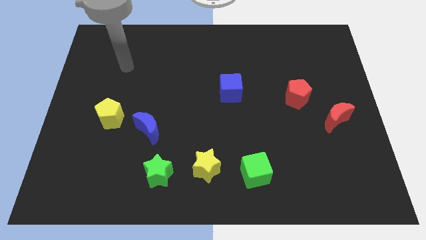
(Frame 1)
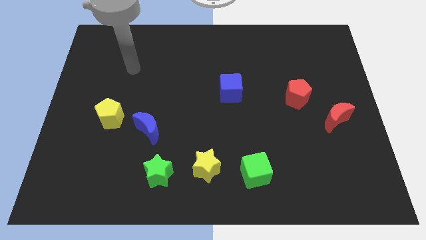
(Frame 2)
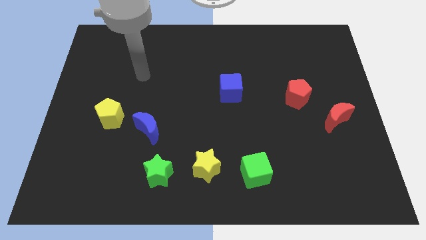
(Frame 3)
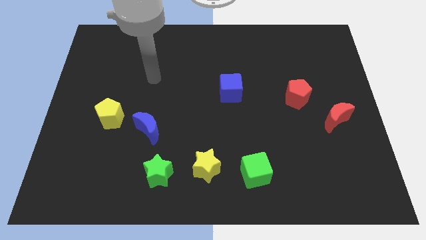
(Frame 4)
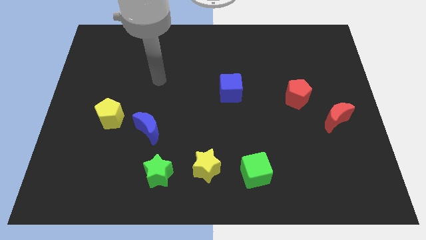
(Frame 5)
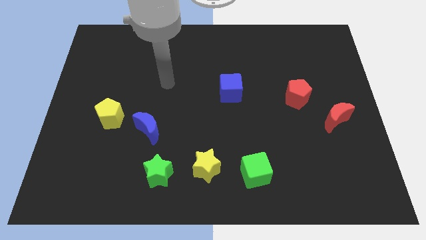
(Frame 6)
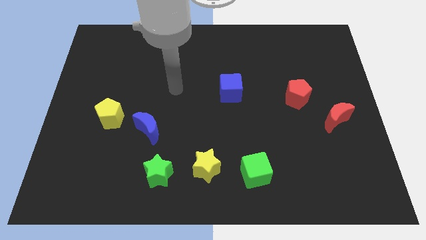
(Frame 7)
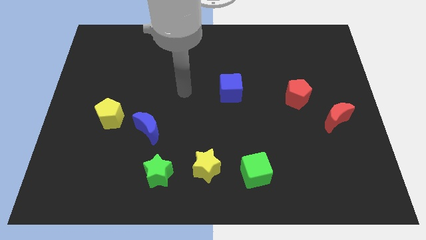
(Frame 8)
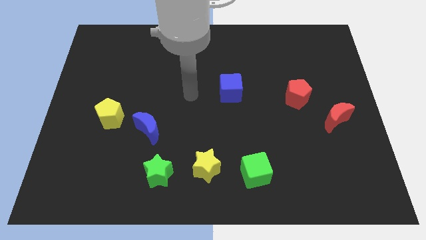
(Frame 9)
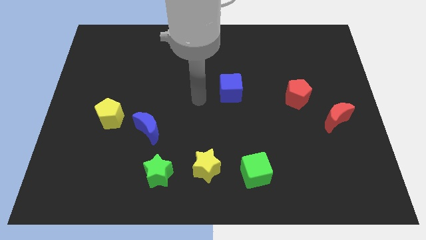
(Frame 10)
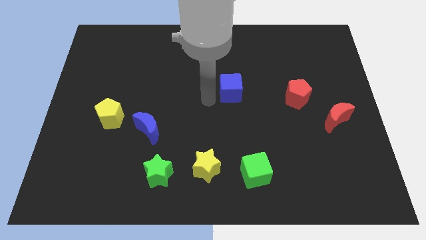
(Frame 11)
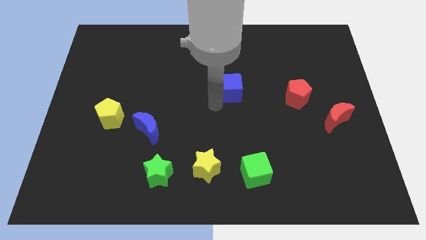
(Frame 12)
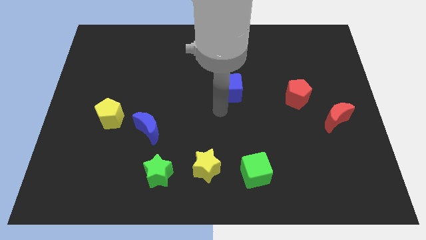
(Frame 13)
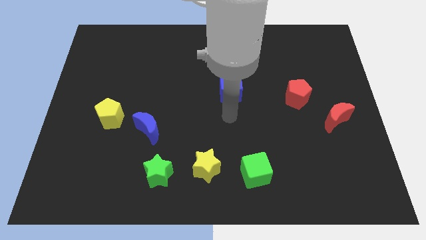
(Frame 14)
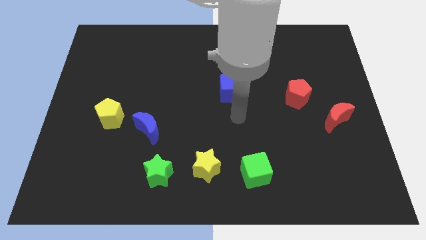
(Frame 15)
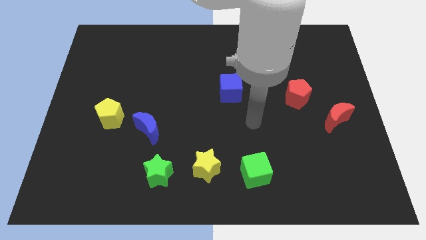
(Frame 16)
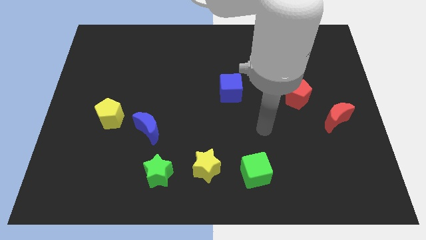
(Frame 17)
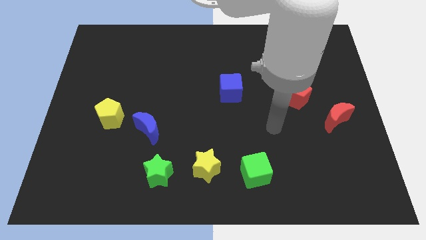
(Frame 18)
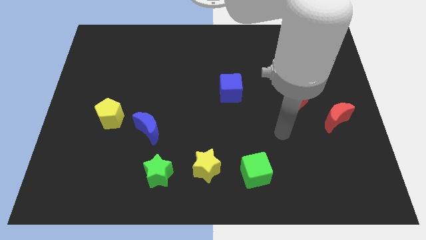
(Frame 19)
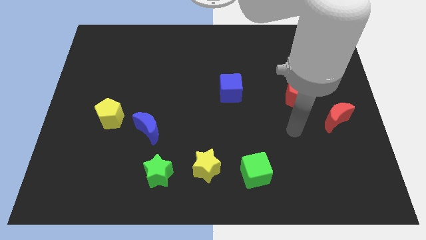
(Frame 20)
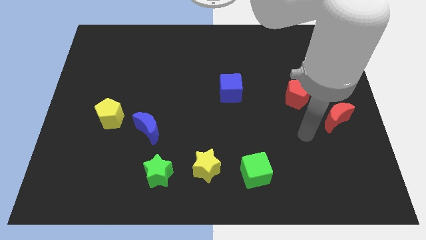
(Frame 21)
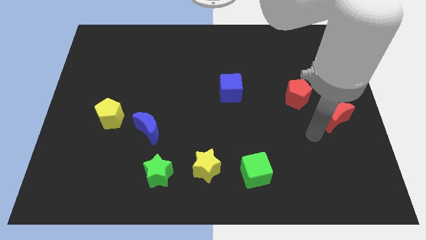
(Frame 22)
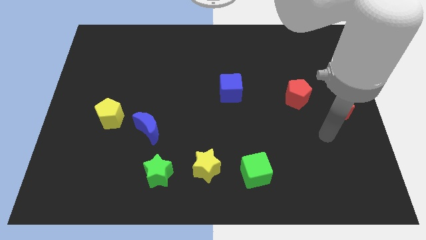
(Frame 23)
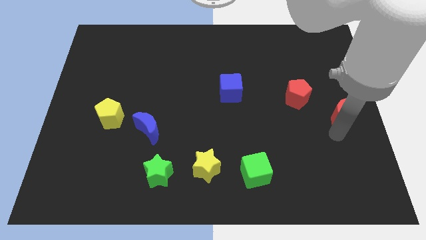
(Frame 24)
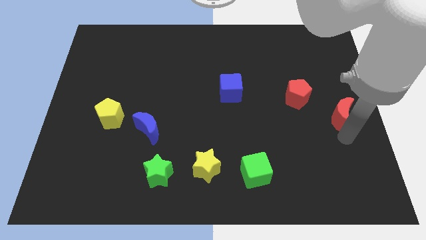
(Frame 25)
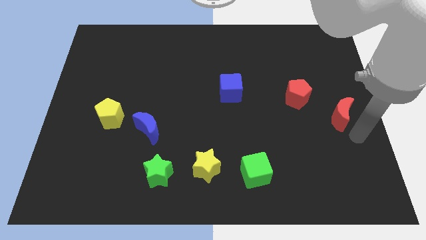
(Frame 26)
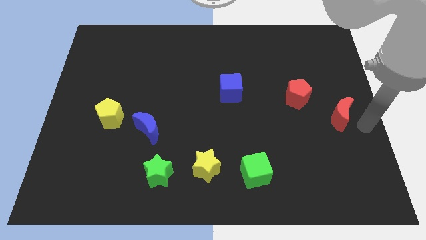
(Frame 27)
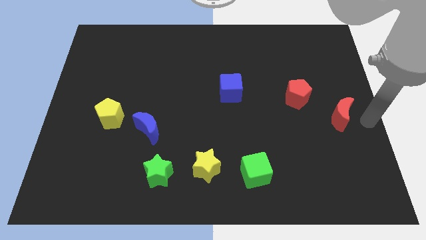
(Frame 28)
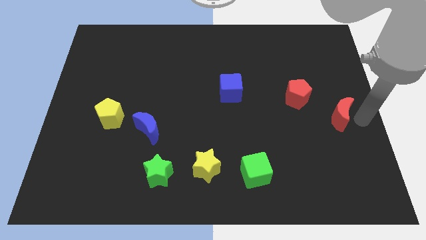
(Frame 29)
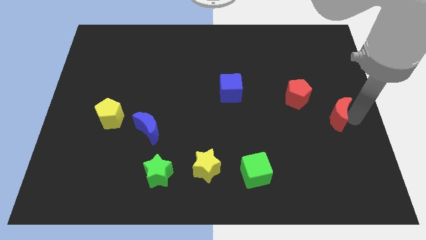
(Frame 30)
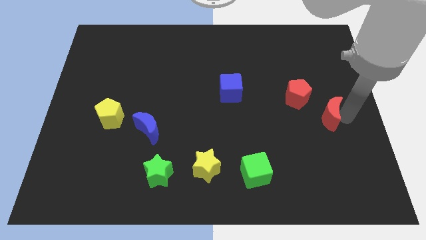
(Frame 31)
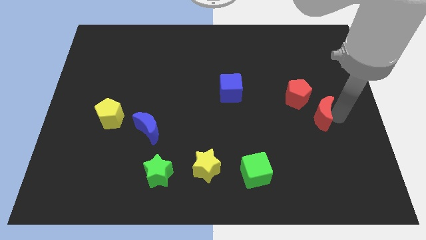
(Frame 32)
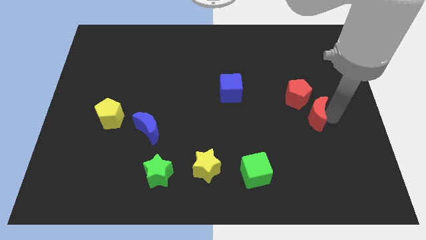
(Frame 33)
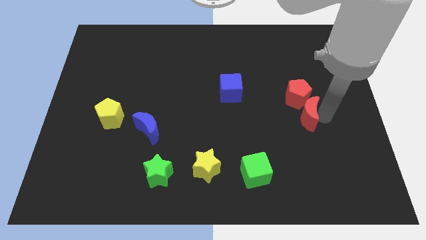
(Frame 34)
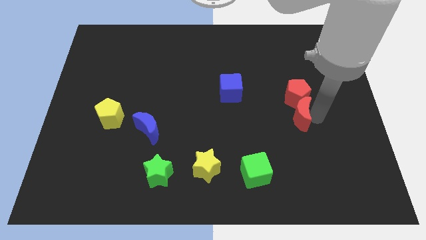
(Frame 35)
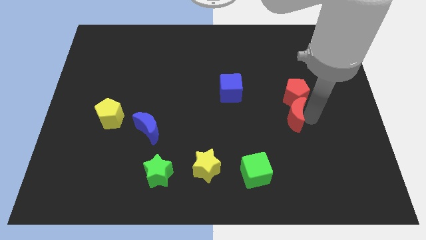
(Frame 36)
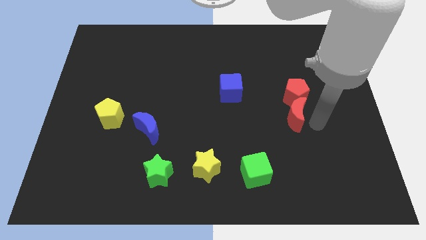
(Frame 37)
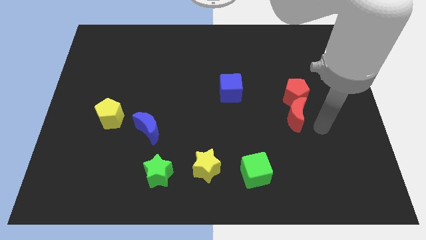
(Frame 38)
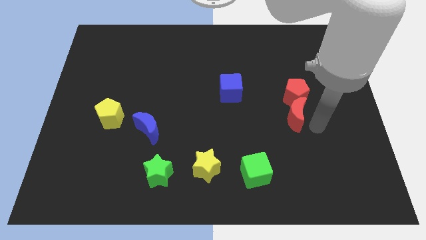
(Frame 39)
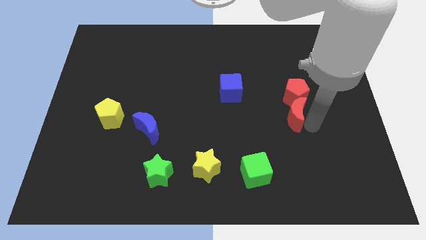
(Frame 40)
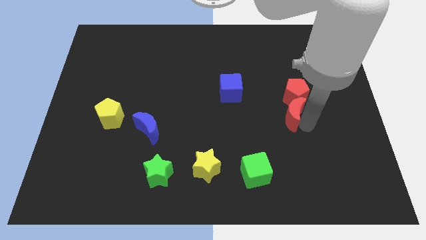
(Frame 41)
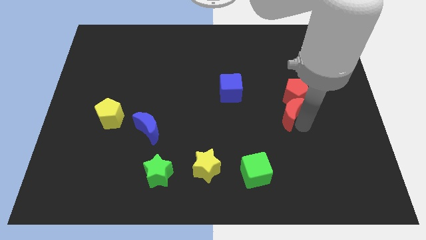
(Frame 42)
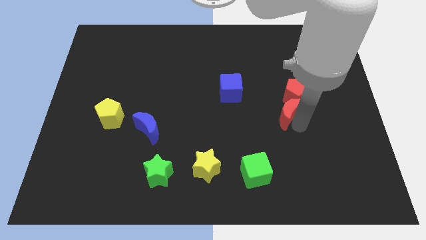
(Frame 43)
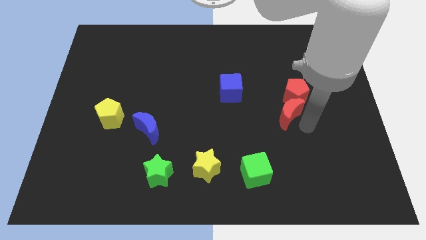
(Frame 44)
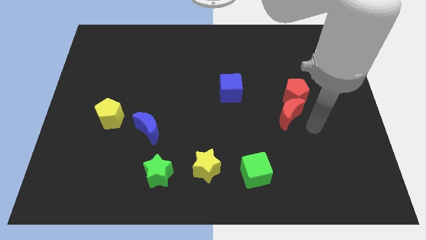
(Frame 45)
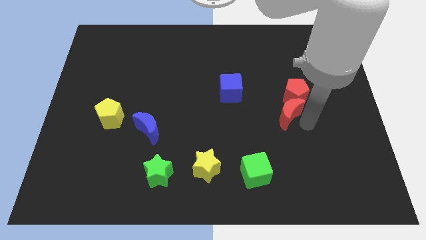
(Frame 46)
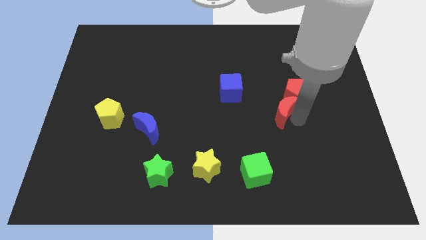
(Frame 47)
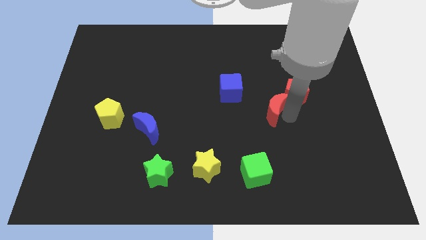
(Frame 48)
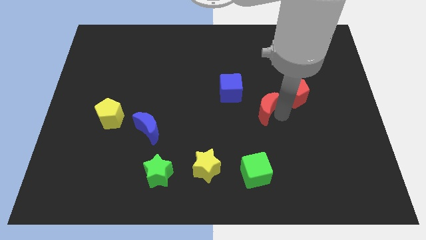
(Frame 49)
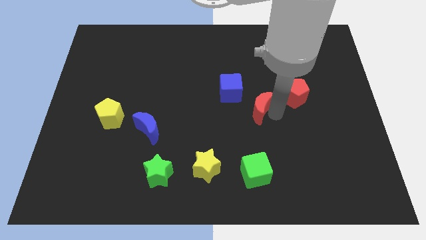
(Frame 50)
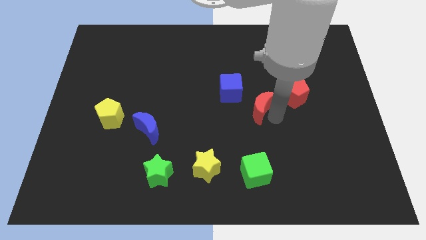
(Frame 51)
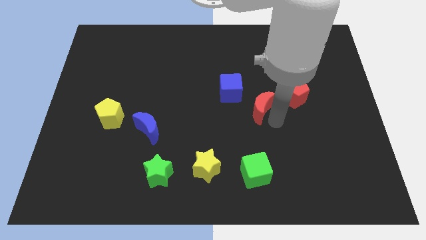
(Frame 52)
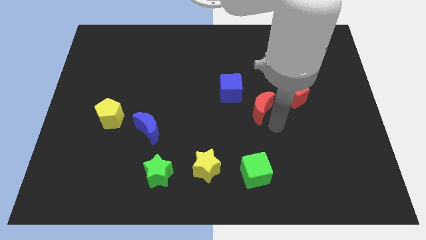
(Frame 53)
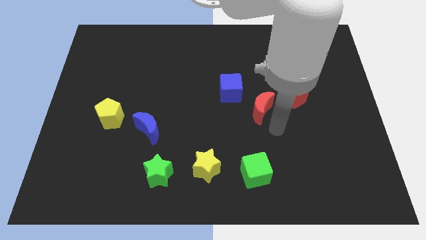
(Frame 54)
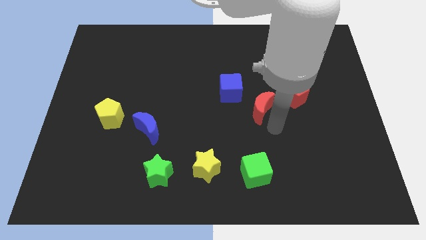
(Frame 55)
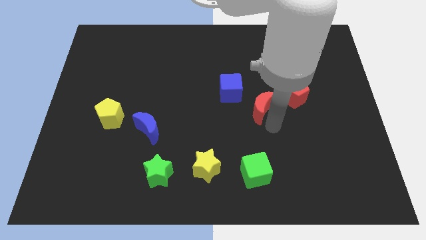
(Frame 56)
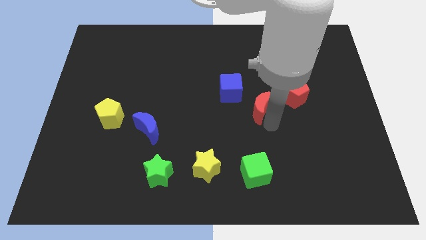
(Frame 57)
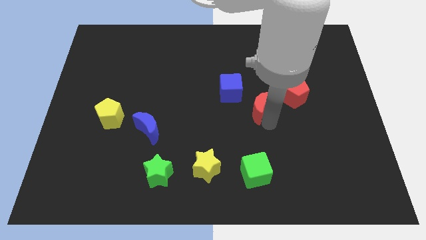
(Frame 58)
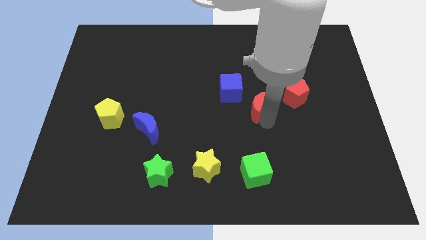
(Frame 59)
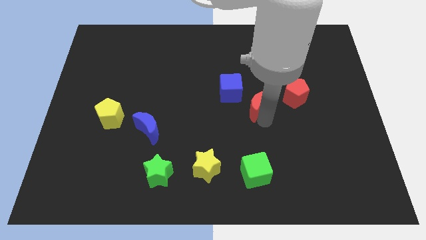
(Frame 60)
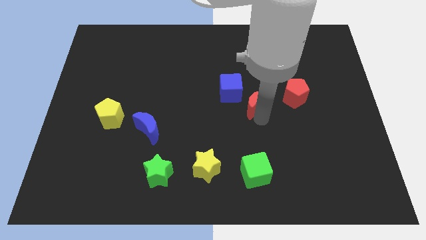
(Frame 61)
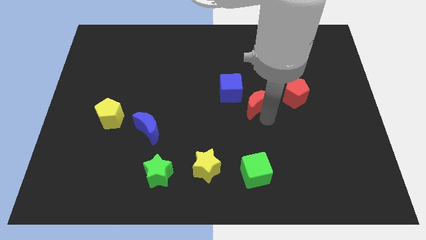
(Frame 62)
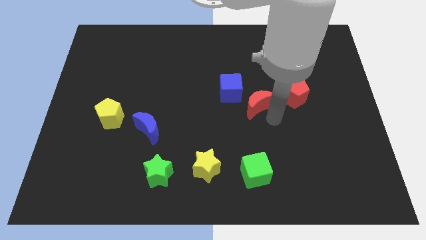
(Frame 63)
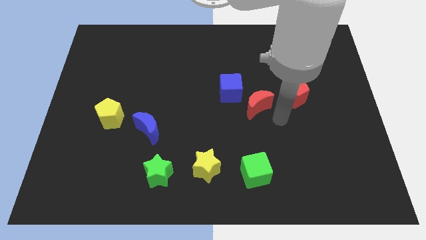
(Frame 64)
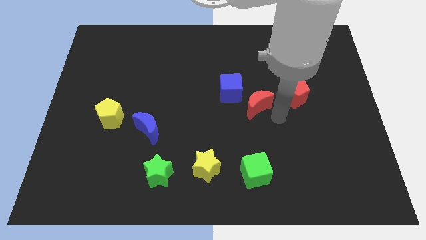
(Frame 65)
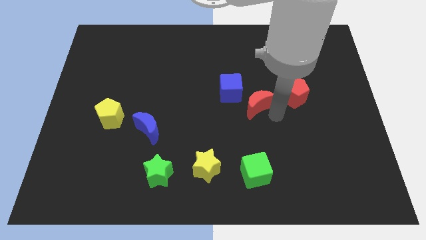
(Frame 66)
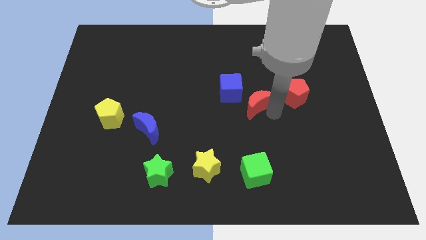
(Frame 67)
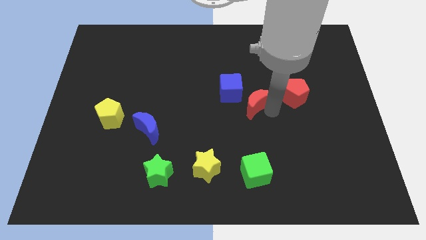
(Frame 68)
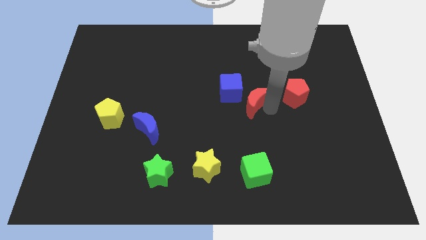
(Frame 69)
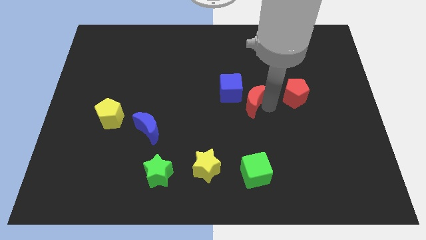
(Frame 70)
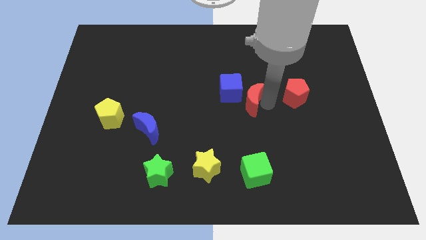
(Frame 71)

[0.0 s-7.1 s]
put the red moon next to the blue cube
